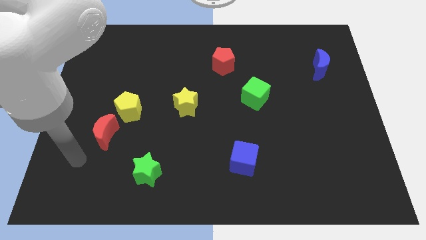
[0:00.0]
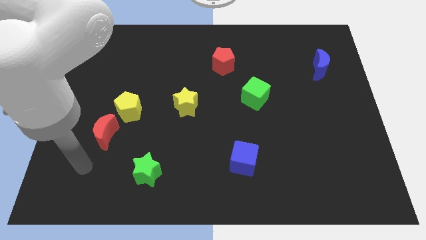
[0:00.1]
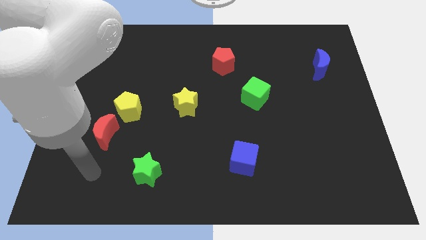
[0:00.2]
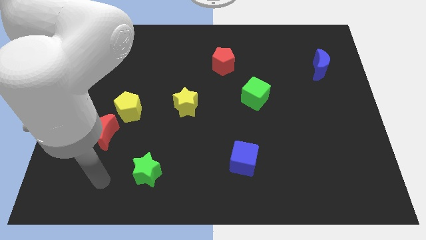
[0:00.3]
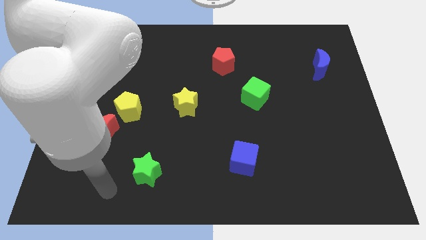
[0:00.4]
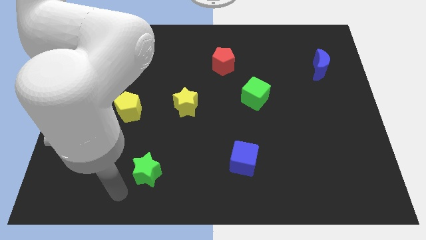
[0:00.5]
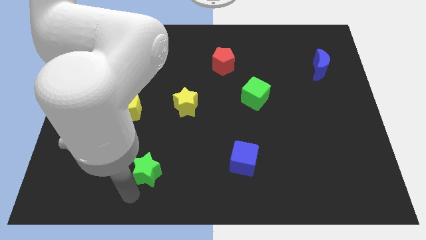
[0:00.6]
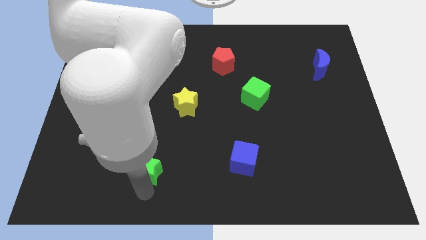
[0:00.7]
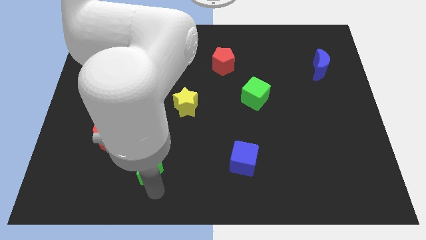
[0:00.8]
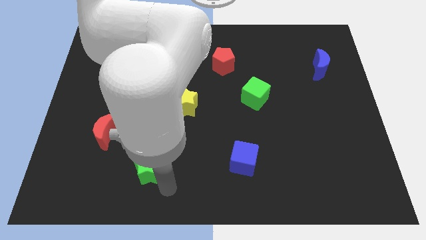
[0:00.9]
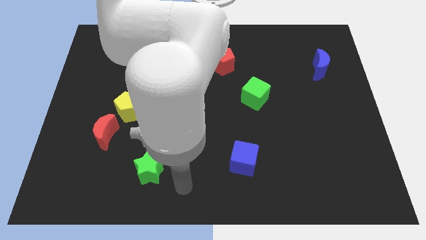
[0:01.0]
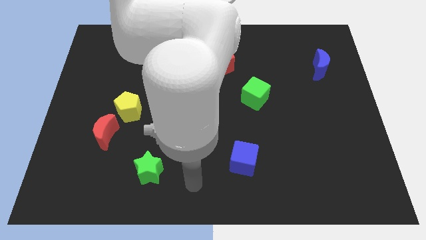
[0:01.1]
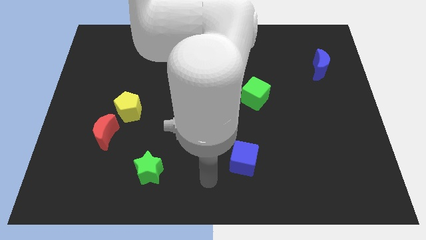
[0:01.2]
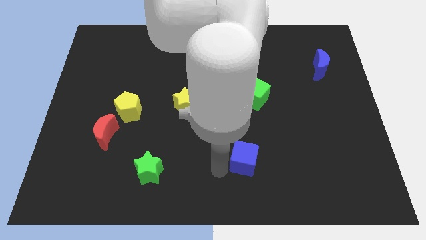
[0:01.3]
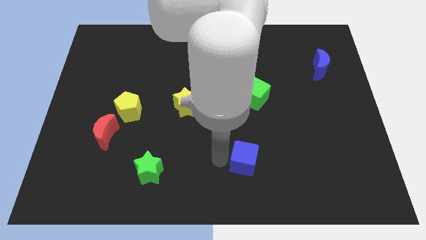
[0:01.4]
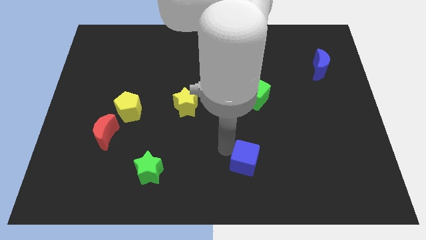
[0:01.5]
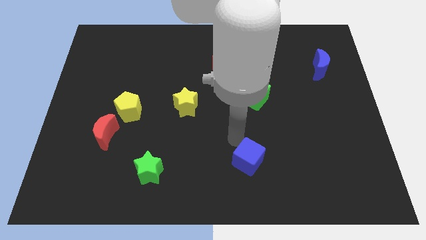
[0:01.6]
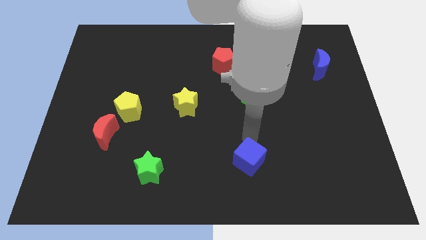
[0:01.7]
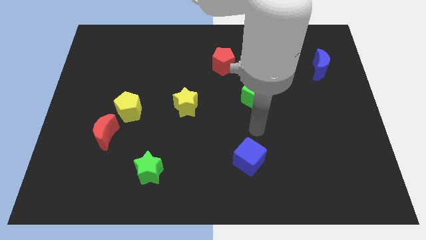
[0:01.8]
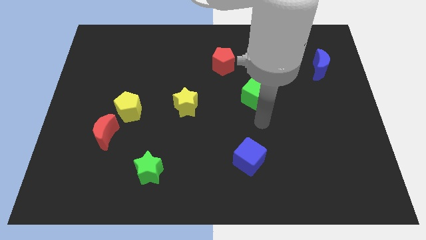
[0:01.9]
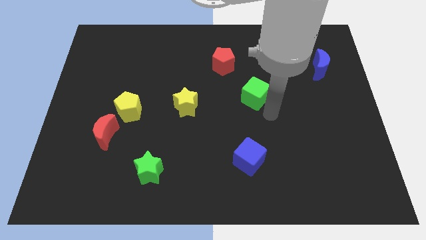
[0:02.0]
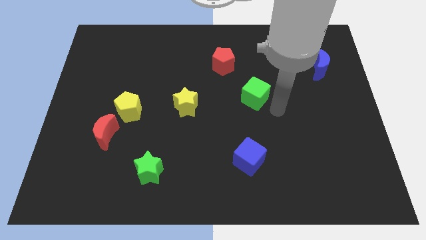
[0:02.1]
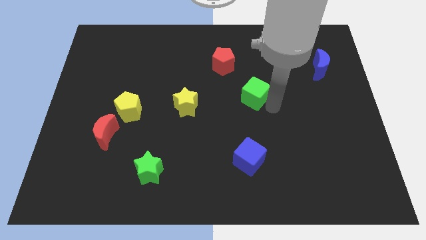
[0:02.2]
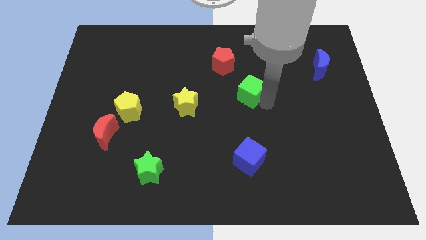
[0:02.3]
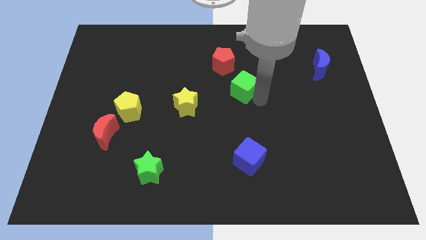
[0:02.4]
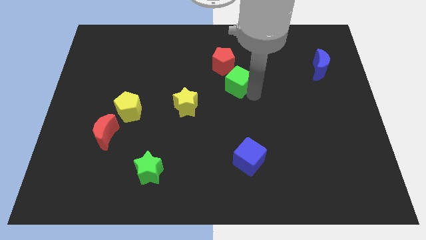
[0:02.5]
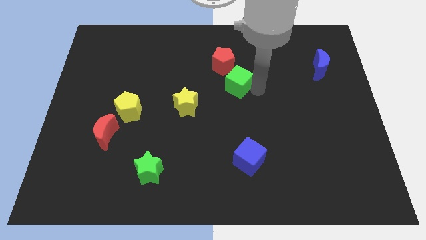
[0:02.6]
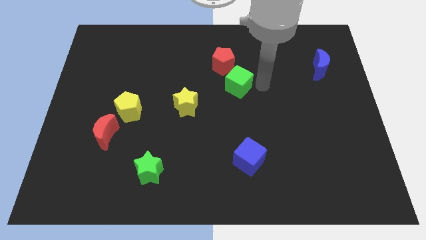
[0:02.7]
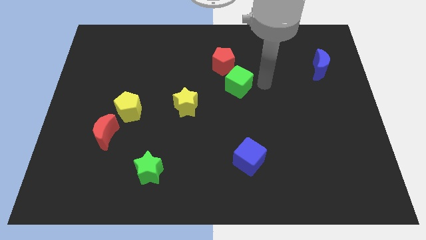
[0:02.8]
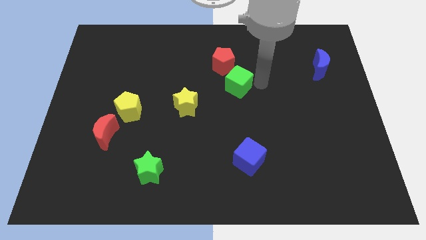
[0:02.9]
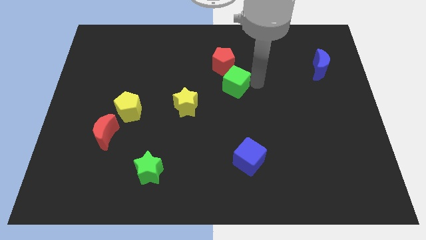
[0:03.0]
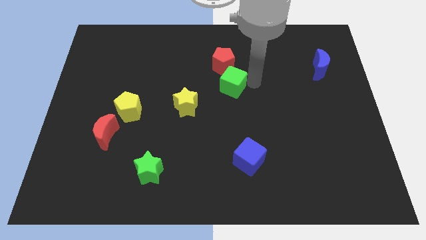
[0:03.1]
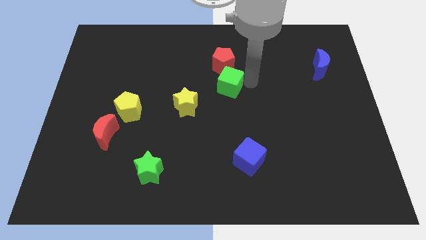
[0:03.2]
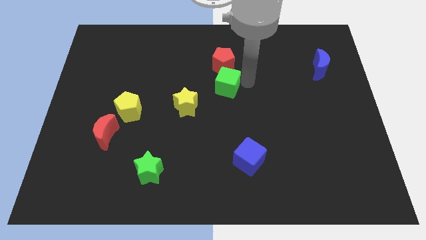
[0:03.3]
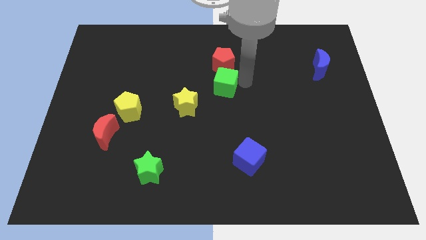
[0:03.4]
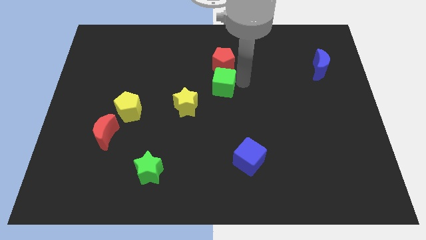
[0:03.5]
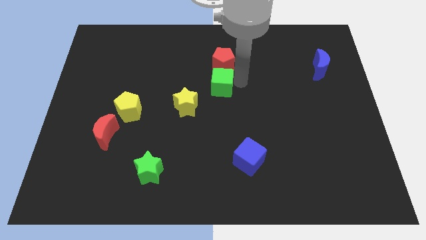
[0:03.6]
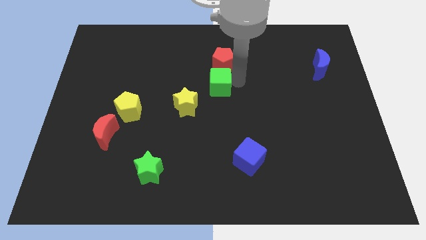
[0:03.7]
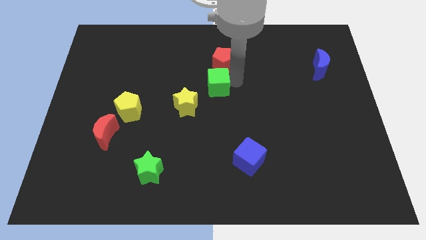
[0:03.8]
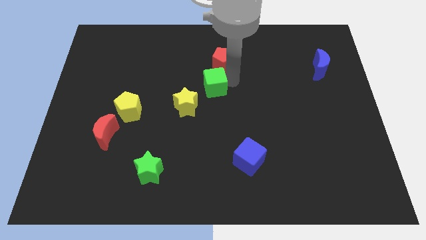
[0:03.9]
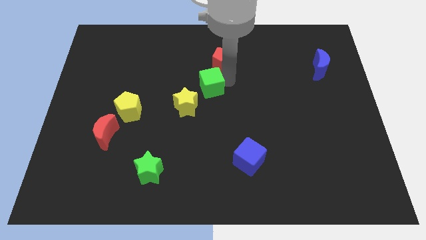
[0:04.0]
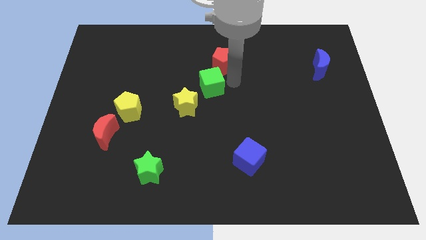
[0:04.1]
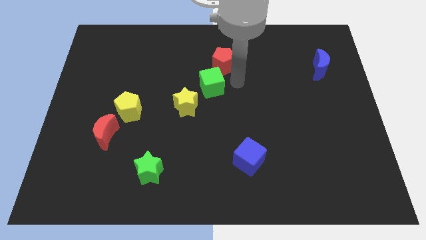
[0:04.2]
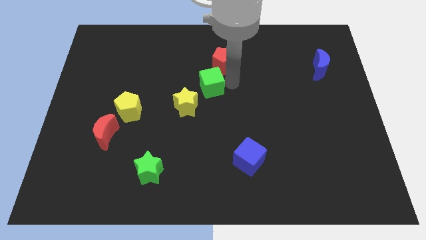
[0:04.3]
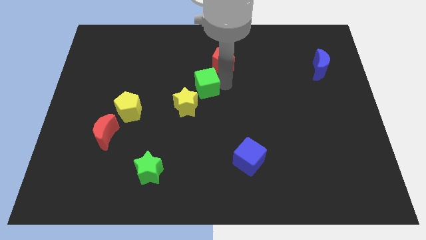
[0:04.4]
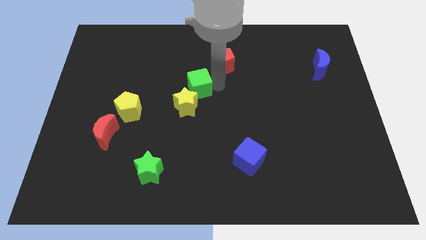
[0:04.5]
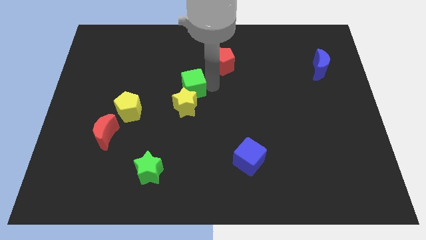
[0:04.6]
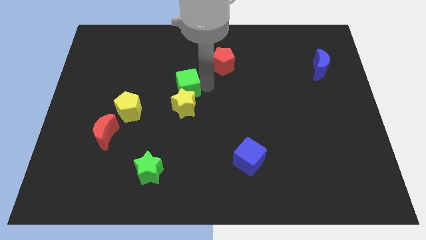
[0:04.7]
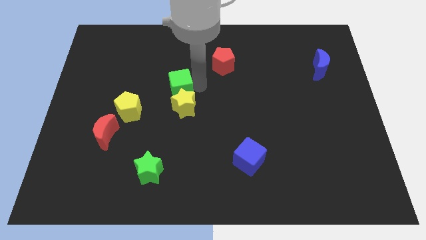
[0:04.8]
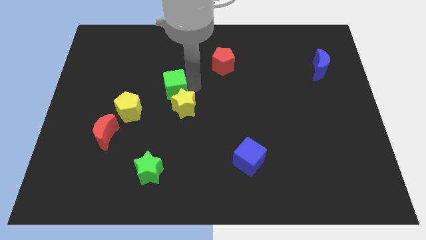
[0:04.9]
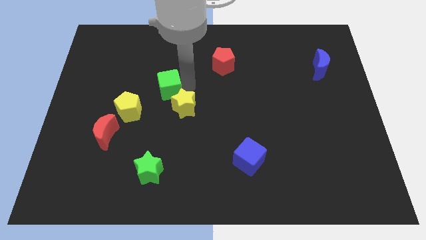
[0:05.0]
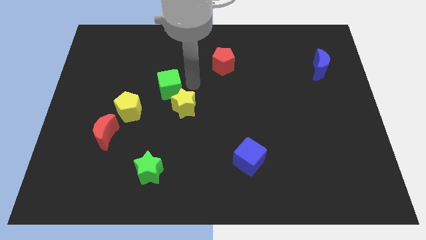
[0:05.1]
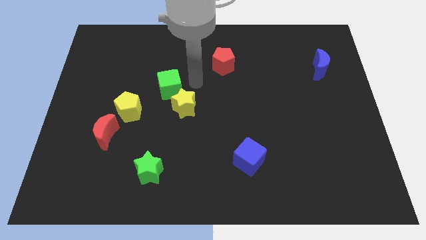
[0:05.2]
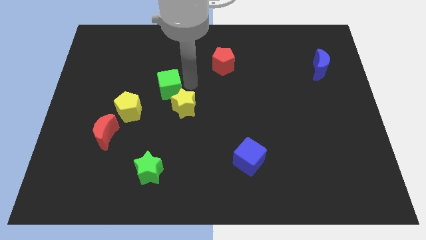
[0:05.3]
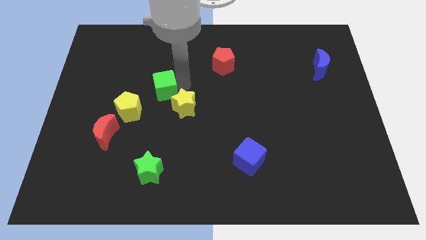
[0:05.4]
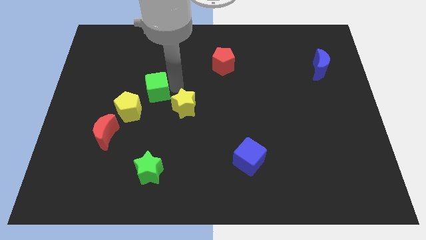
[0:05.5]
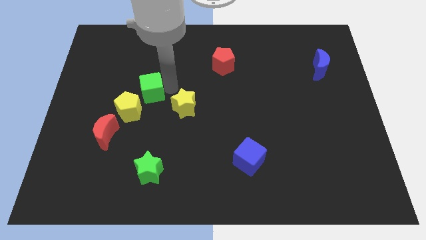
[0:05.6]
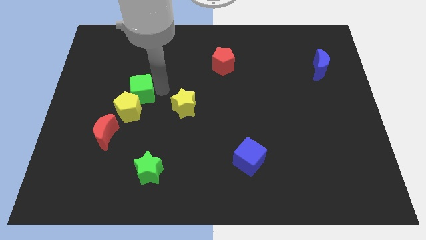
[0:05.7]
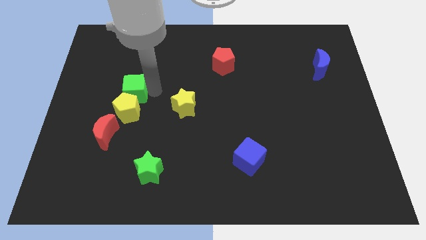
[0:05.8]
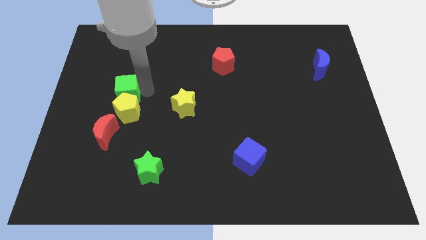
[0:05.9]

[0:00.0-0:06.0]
put the green cube to the top side of the red moon

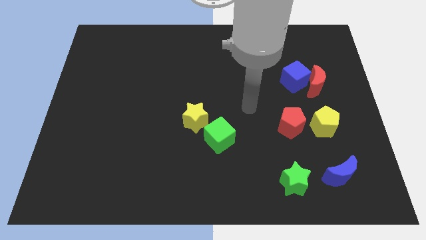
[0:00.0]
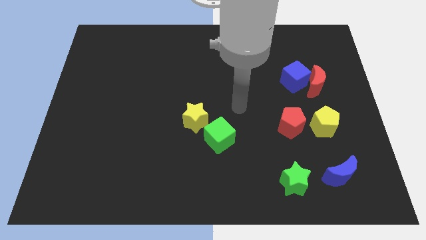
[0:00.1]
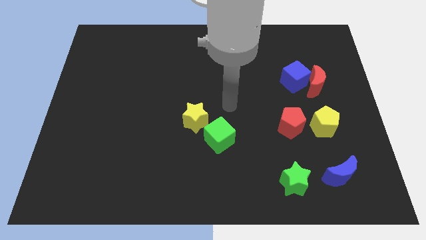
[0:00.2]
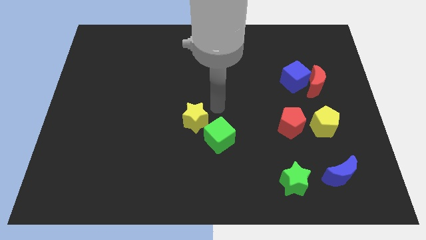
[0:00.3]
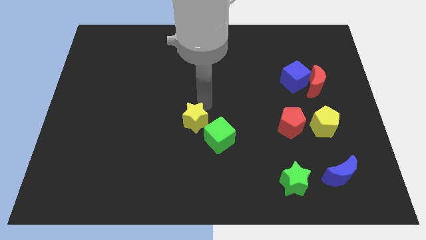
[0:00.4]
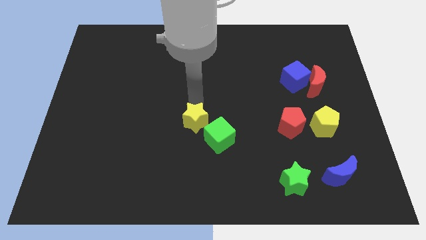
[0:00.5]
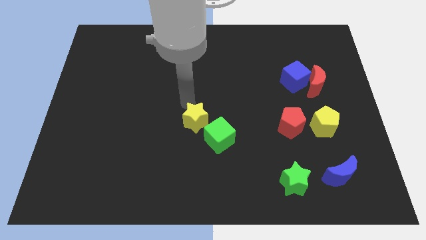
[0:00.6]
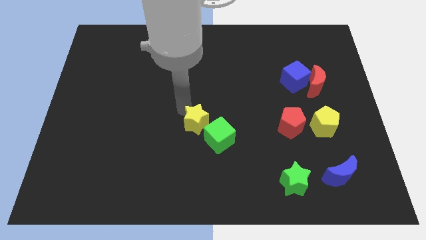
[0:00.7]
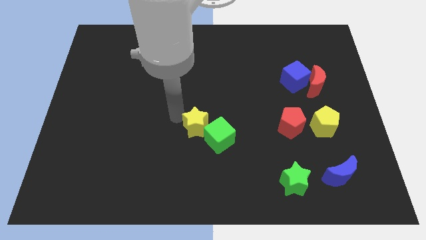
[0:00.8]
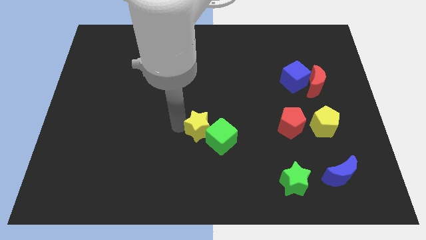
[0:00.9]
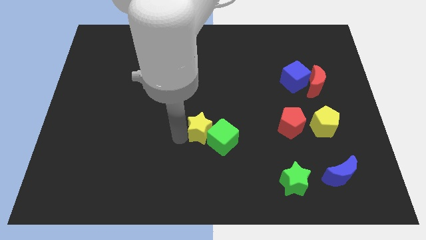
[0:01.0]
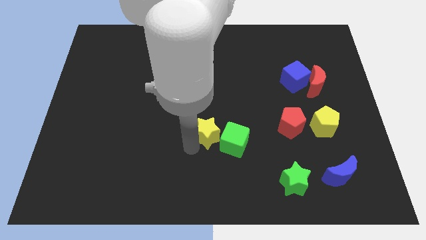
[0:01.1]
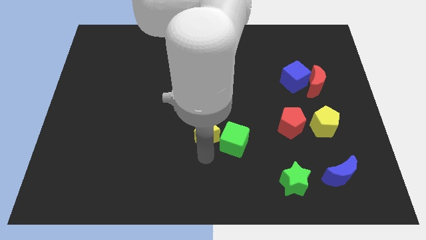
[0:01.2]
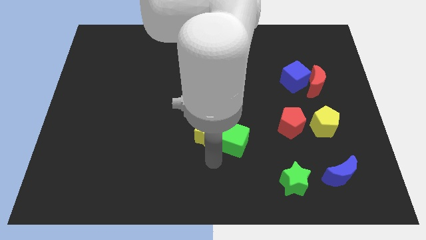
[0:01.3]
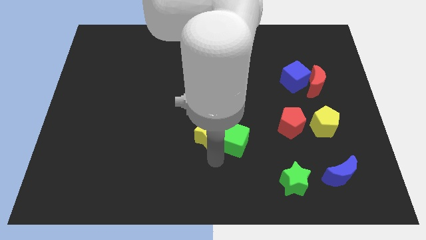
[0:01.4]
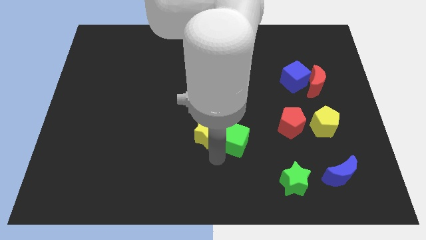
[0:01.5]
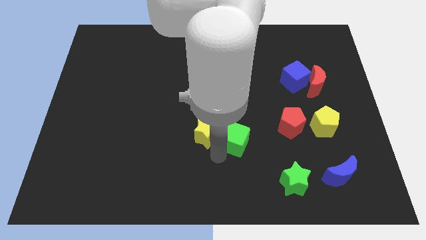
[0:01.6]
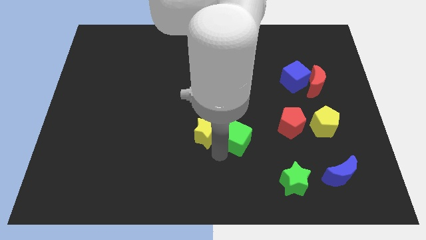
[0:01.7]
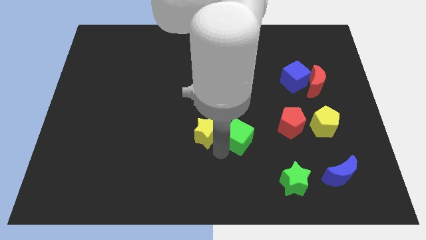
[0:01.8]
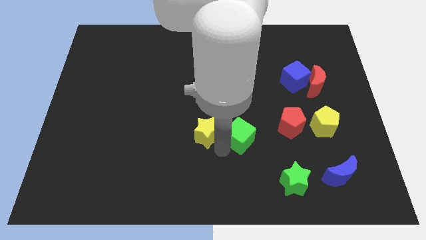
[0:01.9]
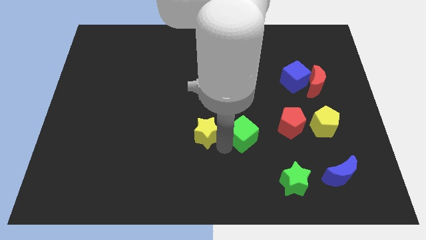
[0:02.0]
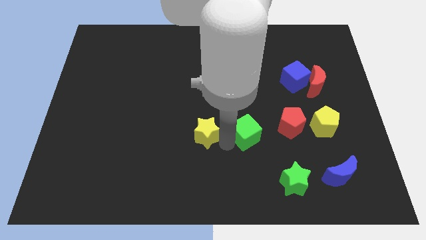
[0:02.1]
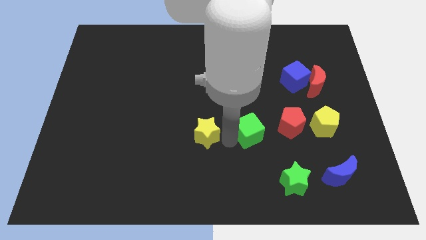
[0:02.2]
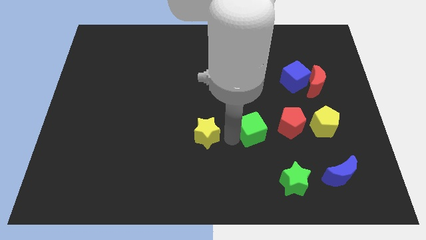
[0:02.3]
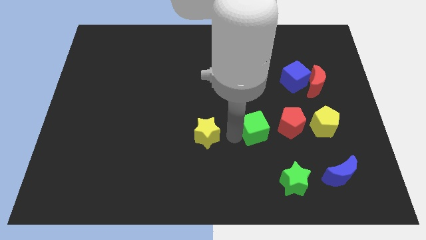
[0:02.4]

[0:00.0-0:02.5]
slide the green cube to the left side of the yellow pentagon
